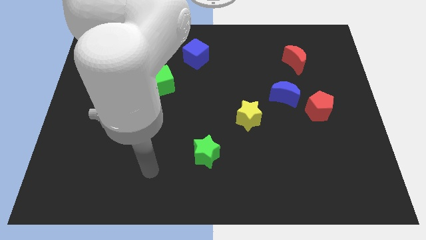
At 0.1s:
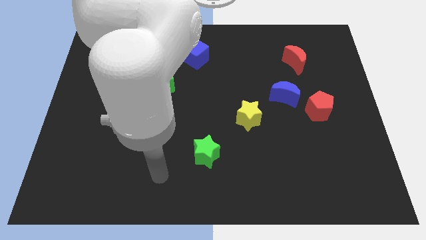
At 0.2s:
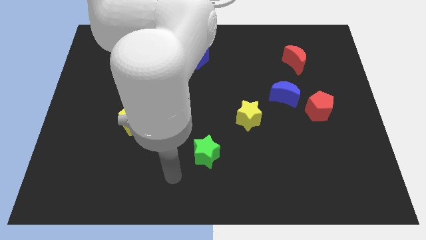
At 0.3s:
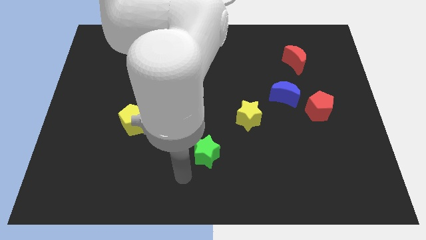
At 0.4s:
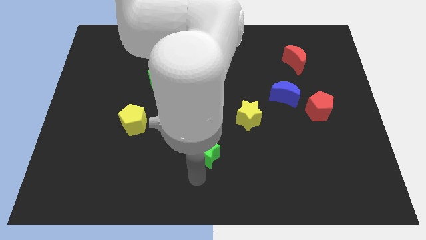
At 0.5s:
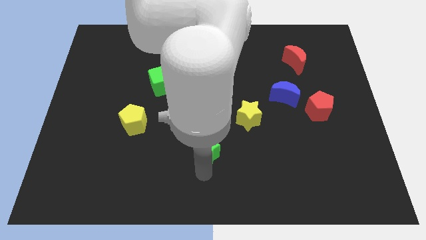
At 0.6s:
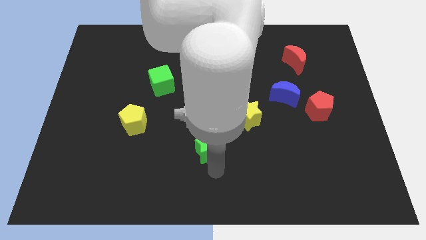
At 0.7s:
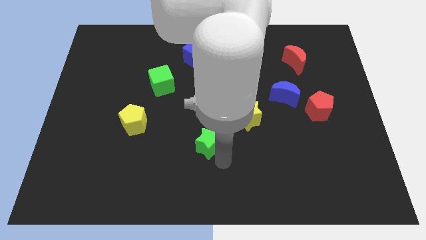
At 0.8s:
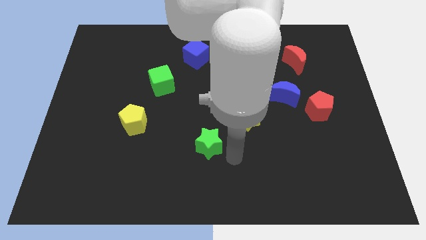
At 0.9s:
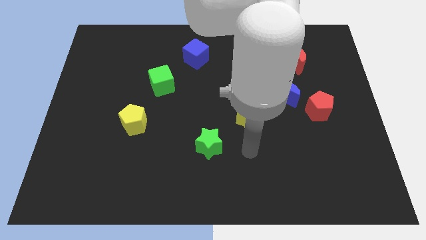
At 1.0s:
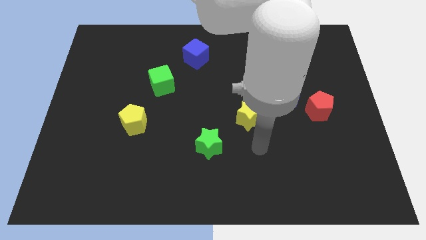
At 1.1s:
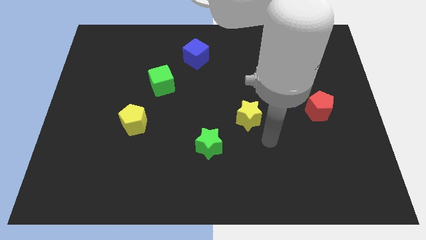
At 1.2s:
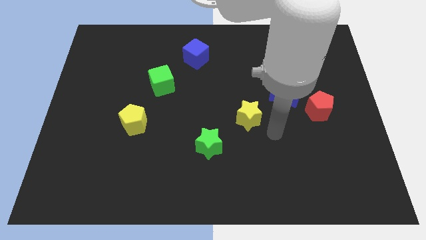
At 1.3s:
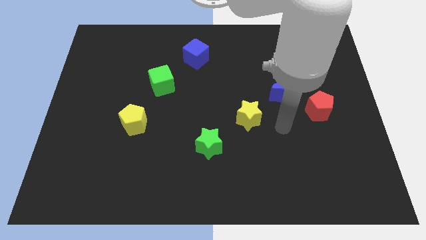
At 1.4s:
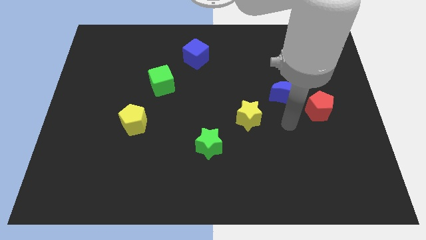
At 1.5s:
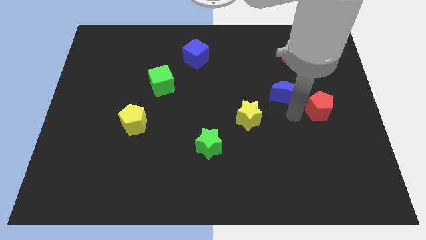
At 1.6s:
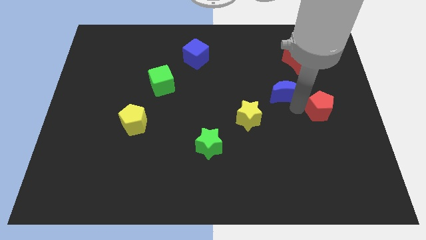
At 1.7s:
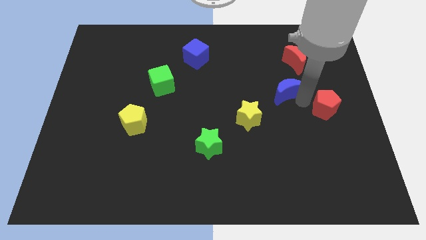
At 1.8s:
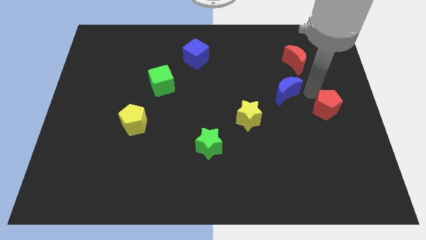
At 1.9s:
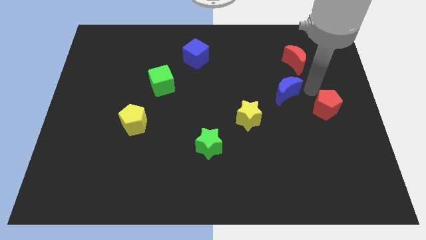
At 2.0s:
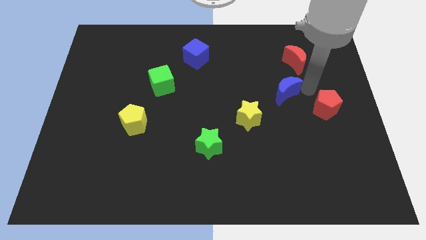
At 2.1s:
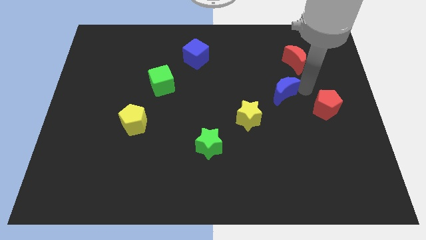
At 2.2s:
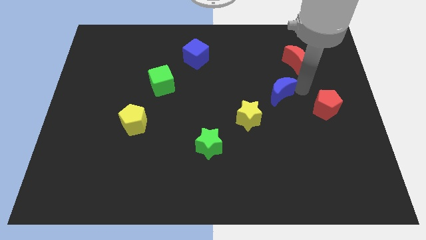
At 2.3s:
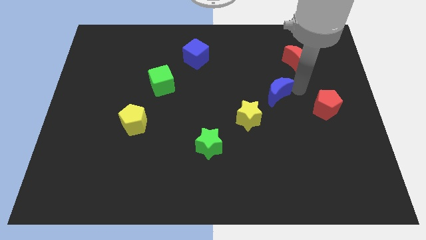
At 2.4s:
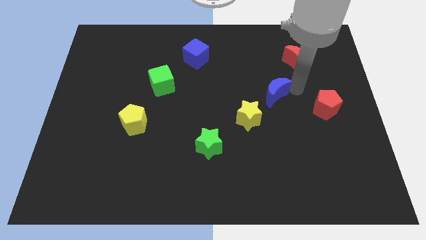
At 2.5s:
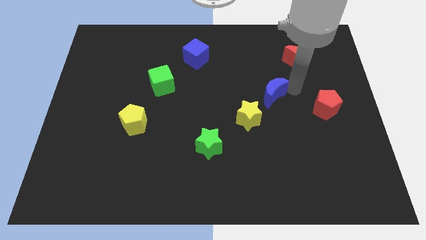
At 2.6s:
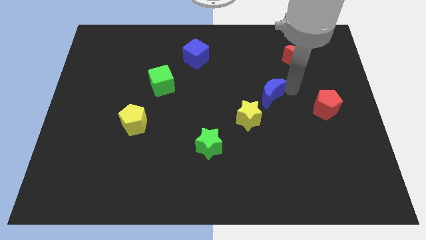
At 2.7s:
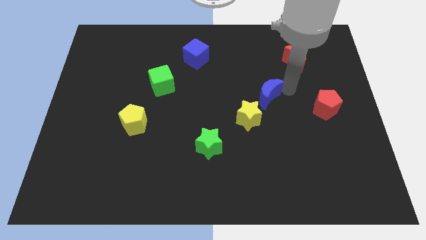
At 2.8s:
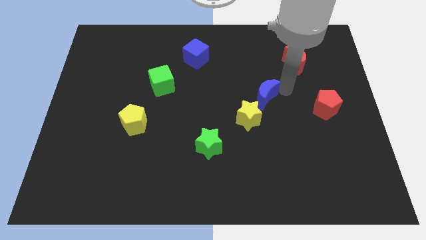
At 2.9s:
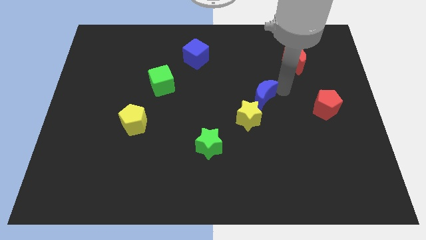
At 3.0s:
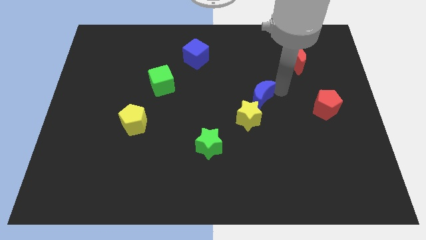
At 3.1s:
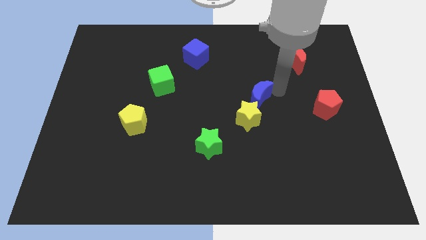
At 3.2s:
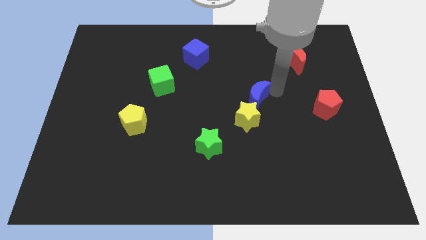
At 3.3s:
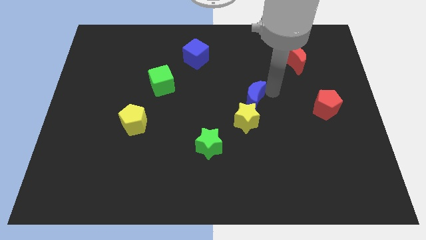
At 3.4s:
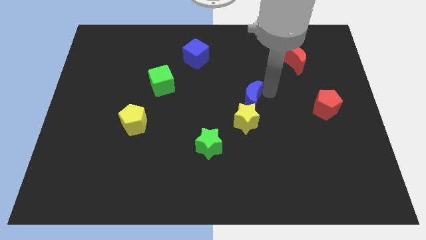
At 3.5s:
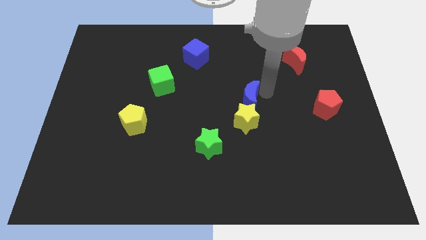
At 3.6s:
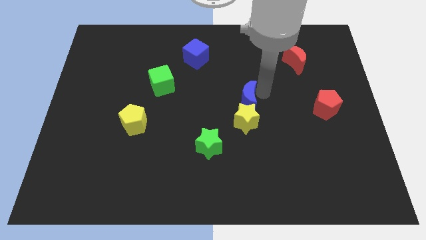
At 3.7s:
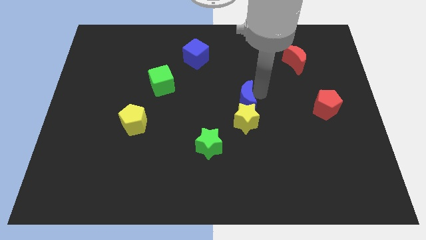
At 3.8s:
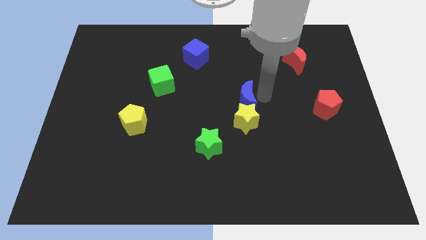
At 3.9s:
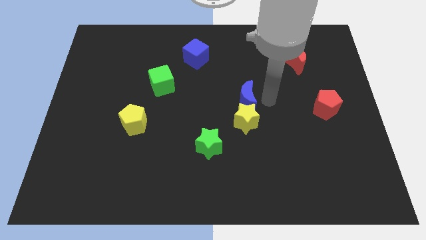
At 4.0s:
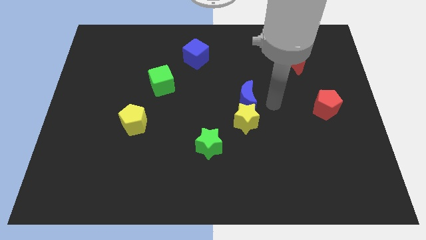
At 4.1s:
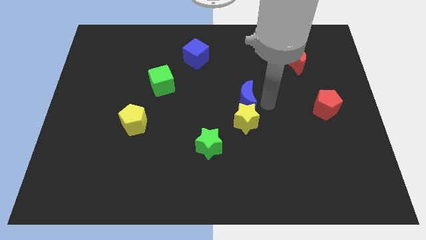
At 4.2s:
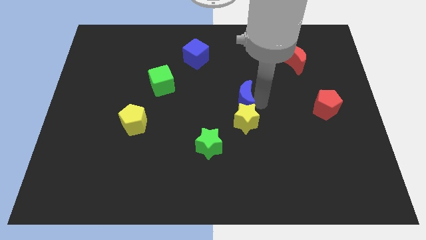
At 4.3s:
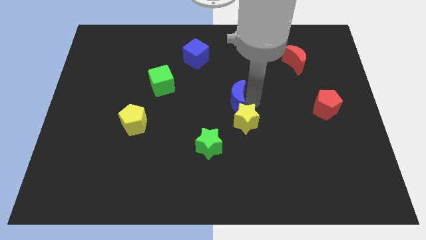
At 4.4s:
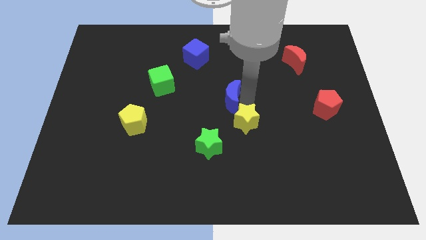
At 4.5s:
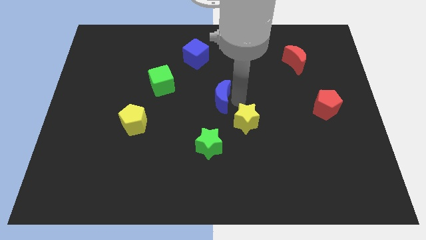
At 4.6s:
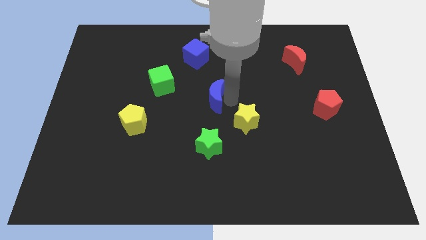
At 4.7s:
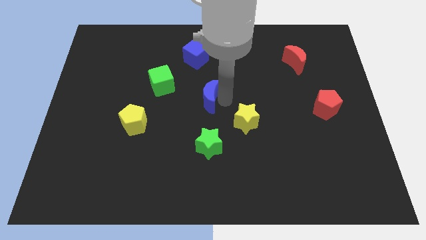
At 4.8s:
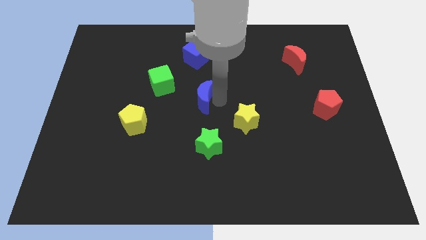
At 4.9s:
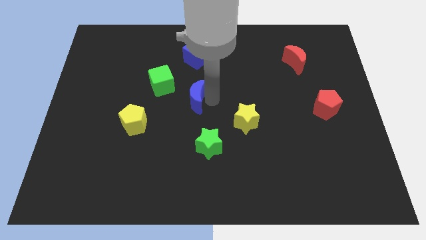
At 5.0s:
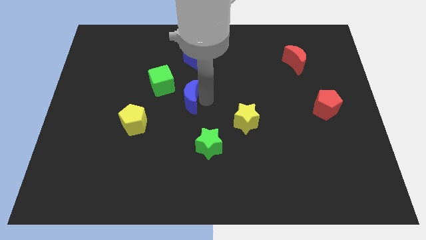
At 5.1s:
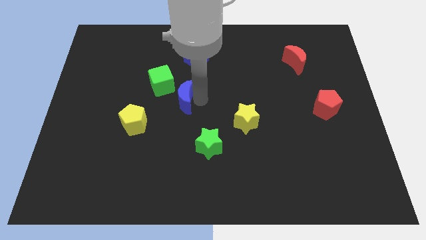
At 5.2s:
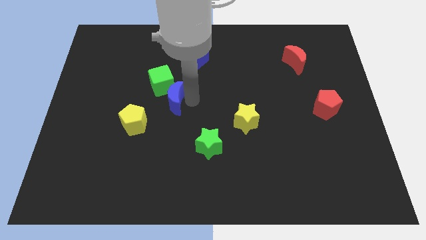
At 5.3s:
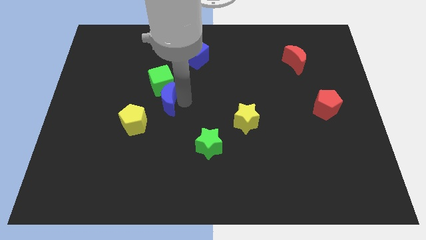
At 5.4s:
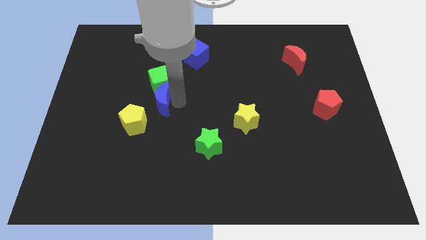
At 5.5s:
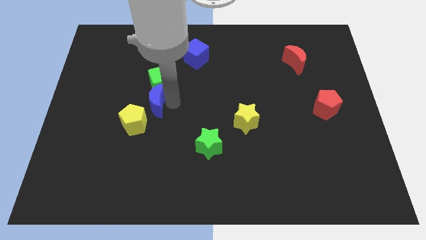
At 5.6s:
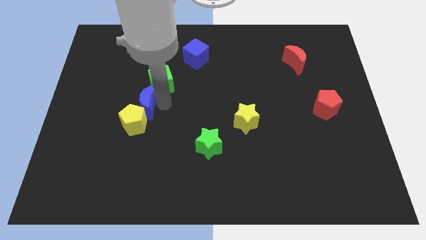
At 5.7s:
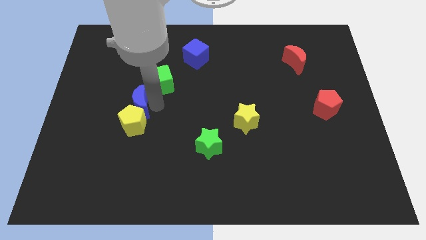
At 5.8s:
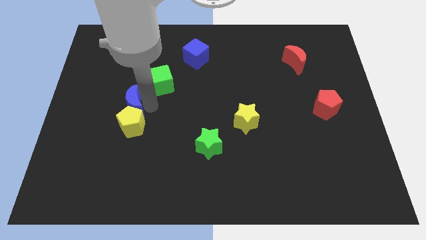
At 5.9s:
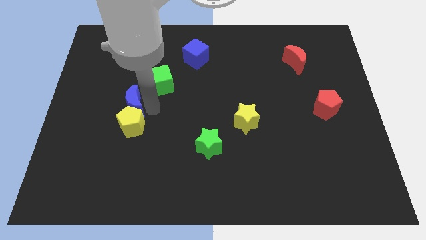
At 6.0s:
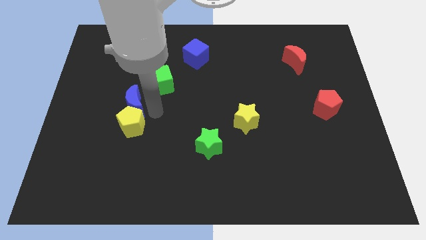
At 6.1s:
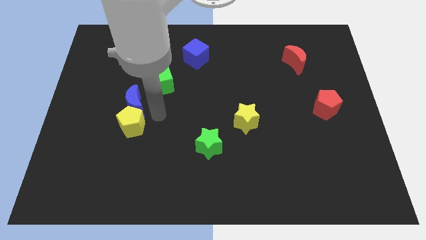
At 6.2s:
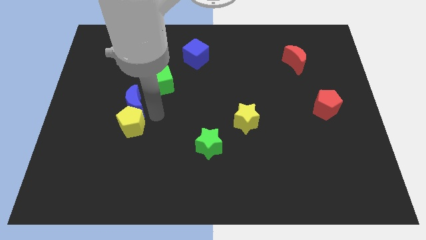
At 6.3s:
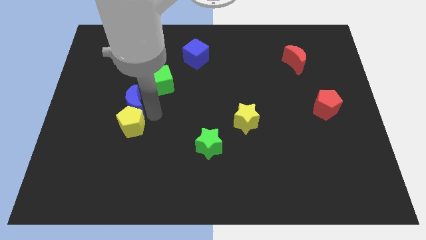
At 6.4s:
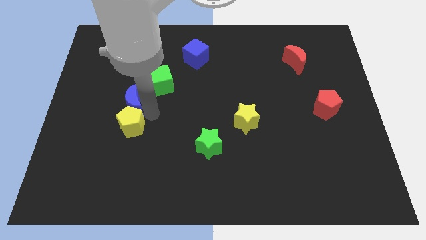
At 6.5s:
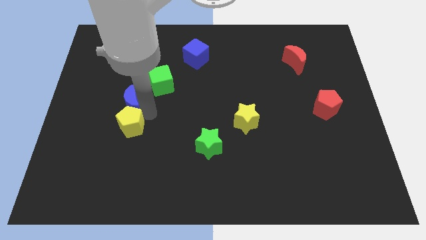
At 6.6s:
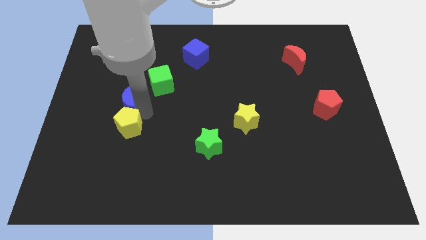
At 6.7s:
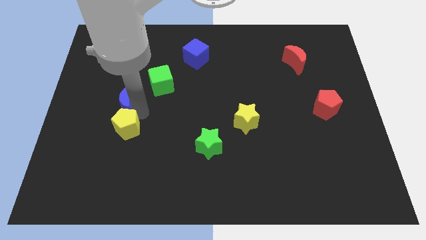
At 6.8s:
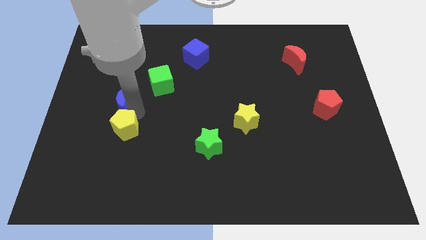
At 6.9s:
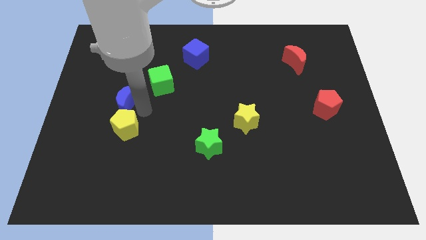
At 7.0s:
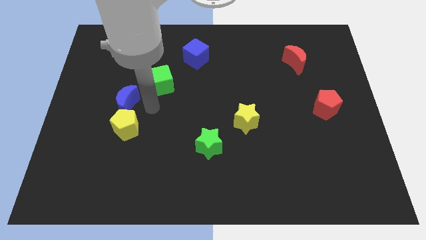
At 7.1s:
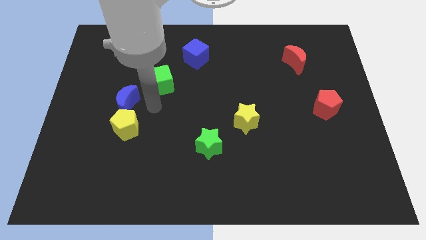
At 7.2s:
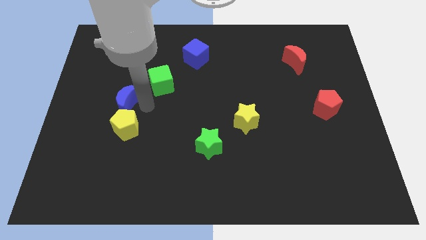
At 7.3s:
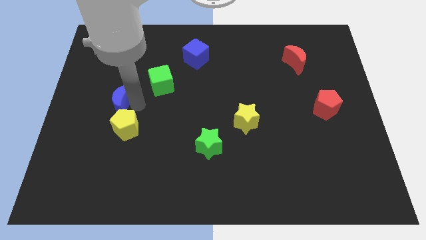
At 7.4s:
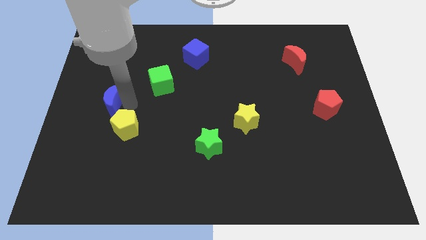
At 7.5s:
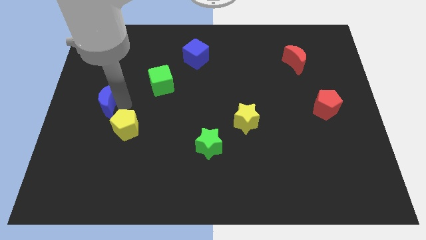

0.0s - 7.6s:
move the blue moon to the left side of the board
